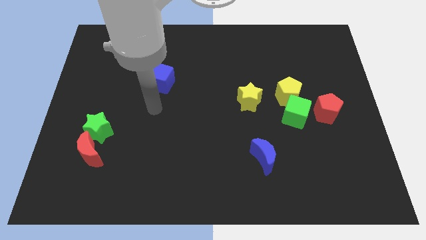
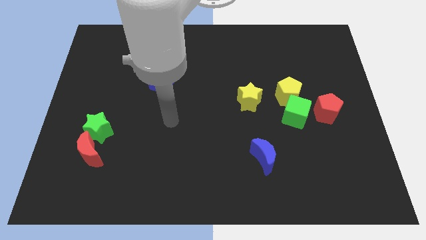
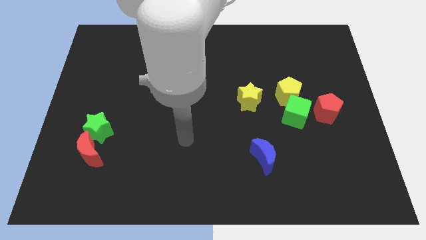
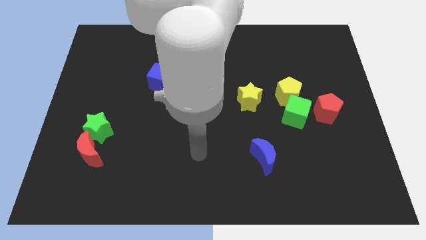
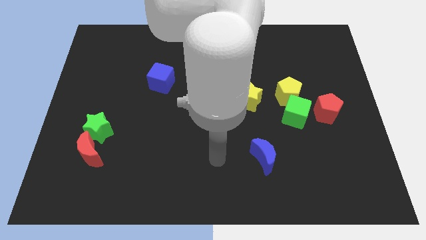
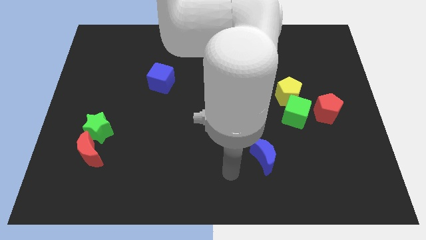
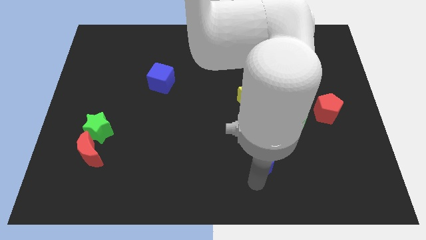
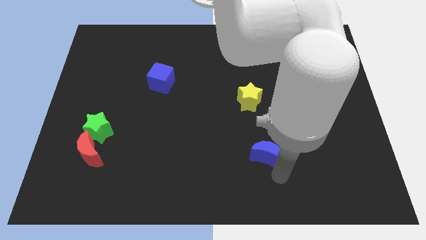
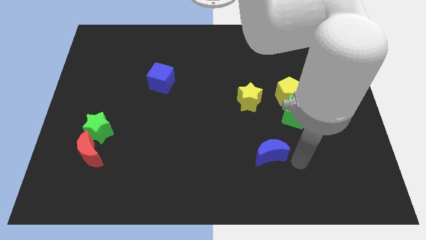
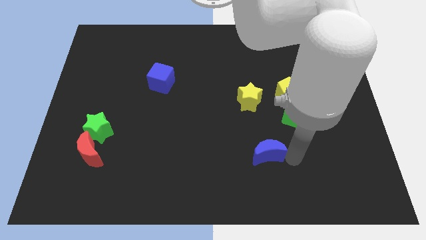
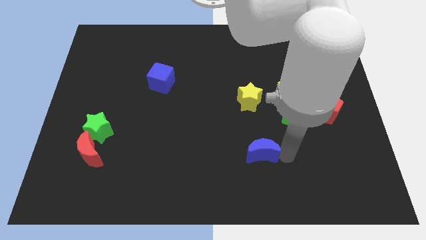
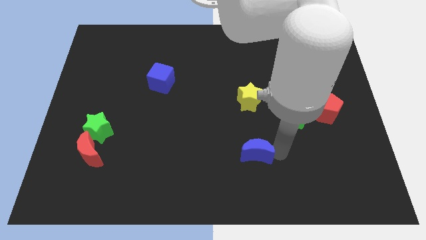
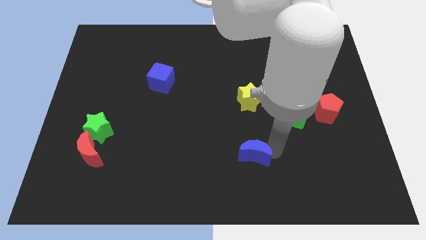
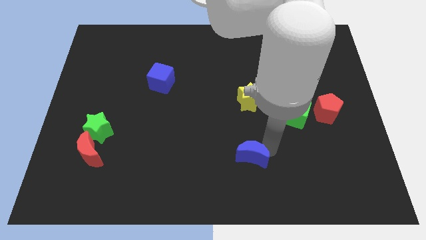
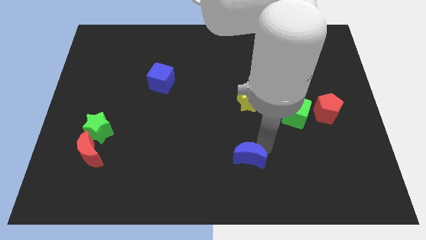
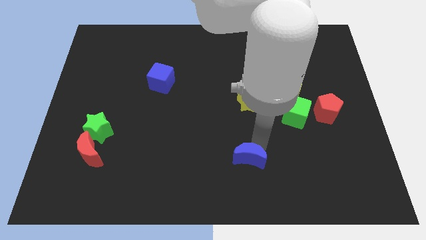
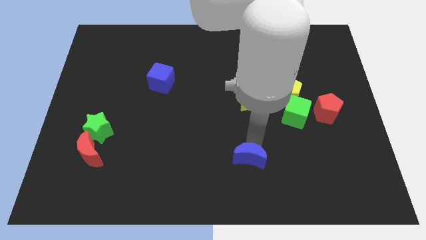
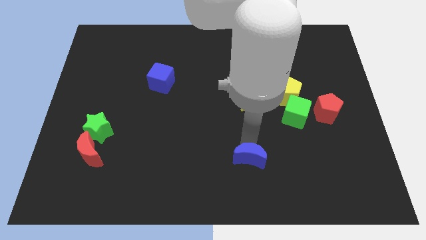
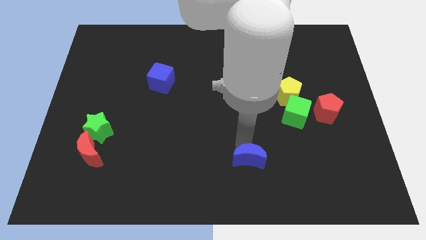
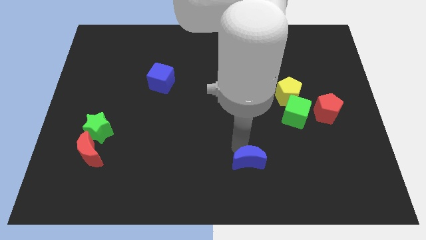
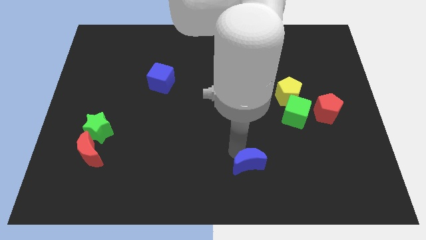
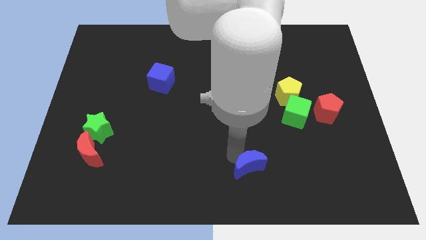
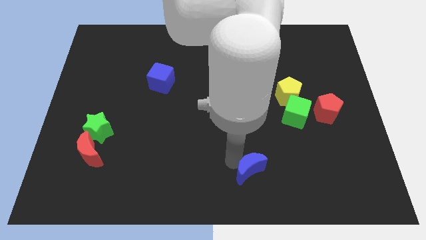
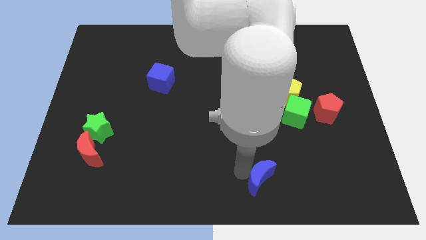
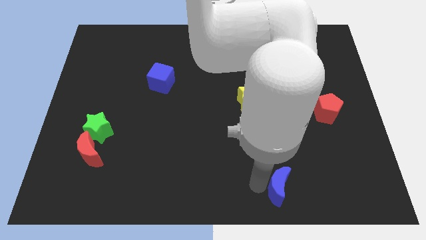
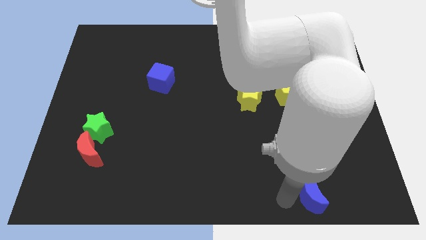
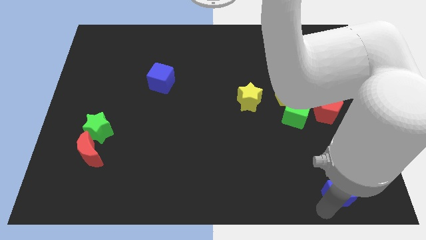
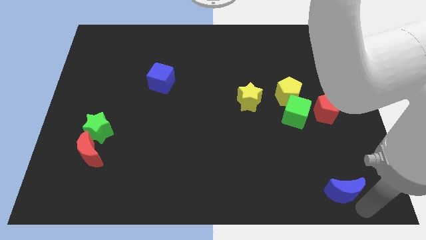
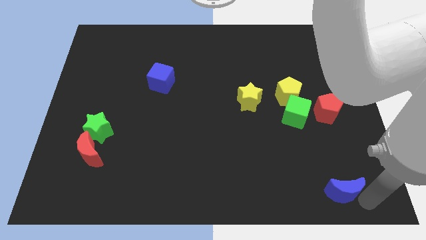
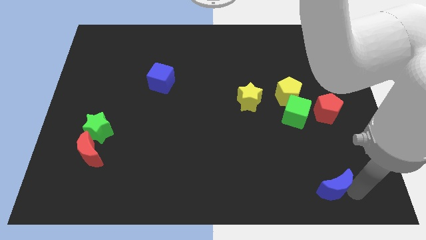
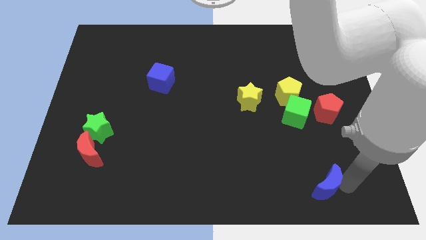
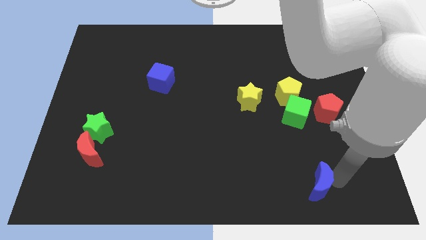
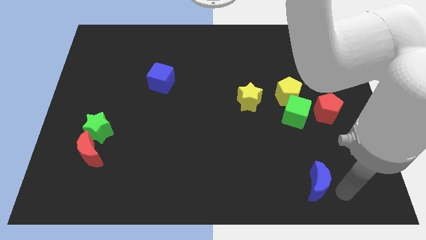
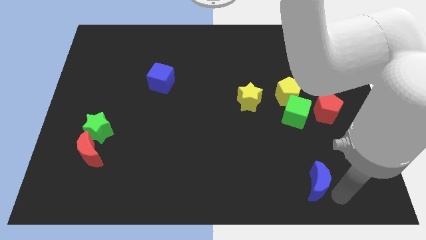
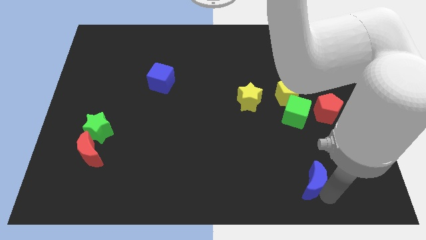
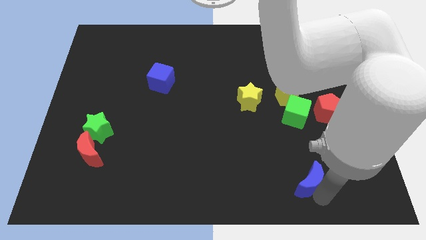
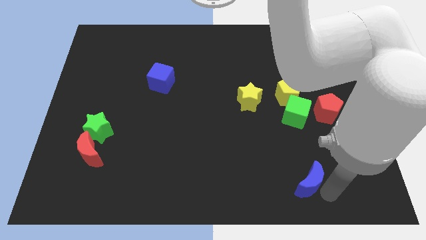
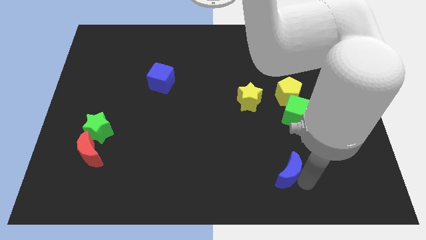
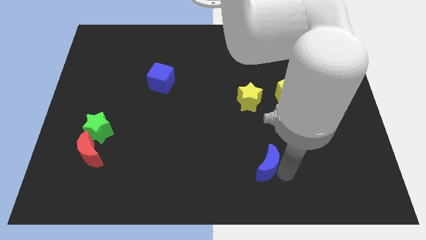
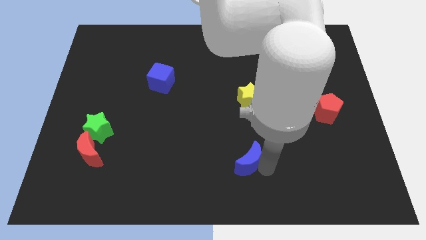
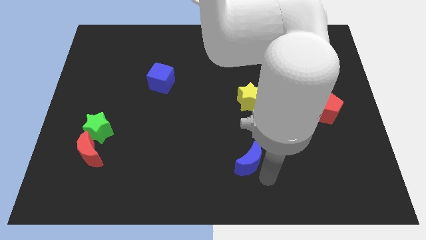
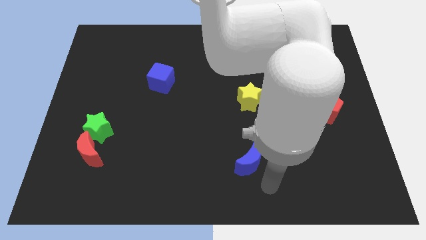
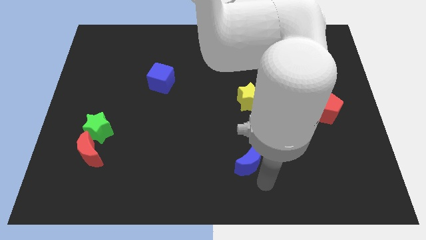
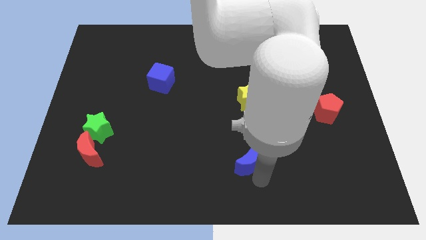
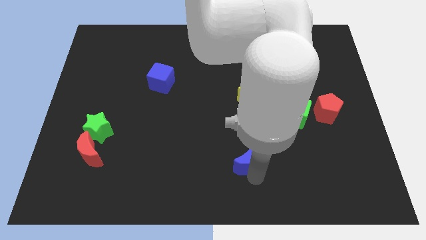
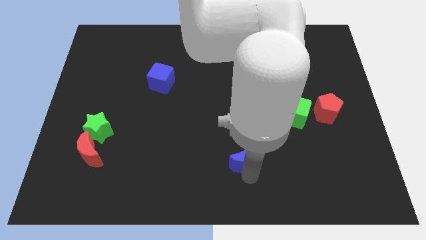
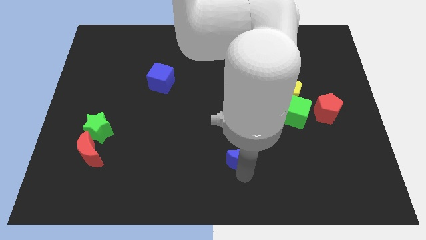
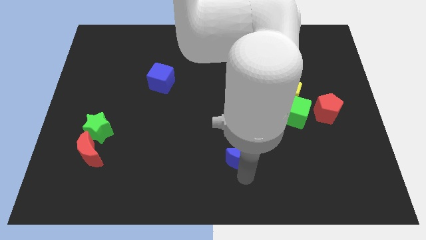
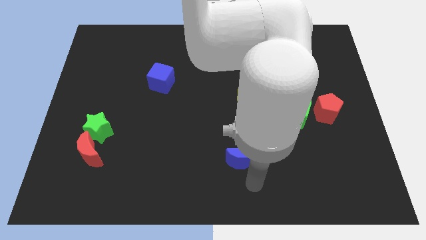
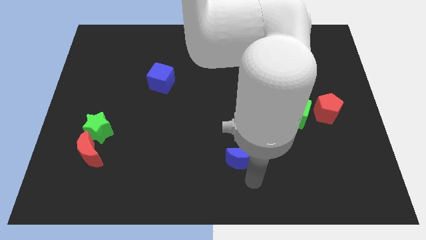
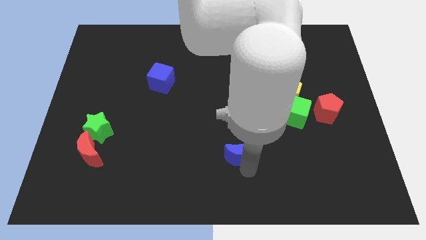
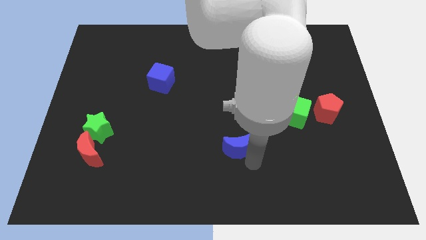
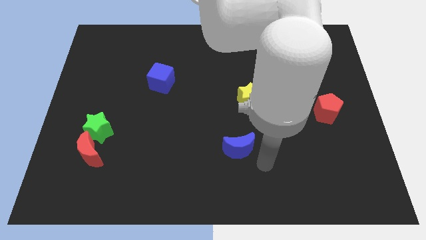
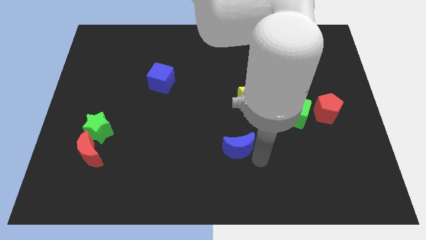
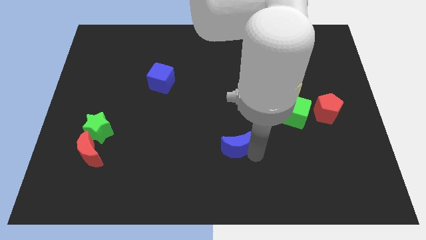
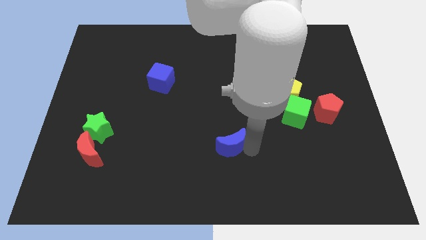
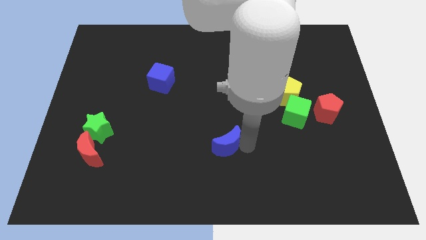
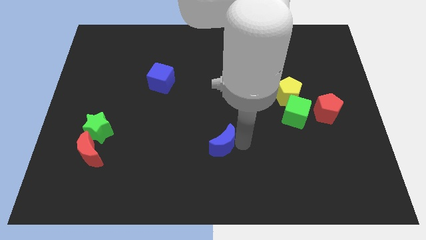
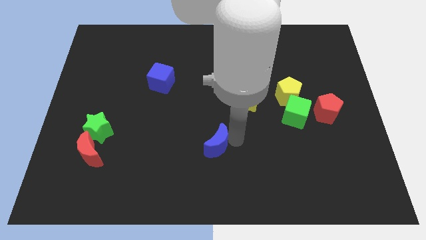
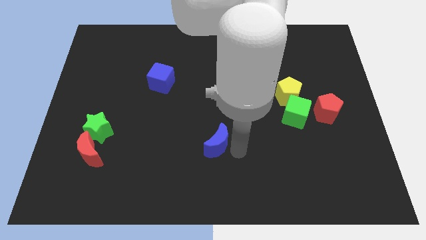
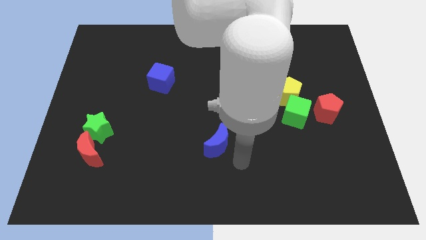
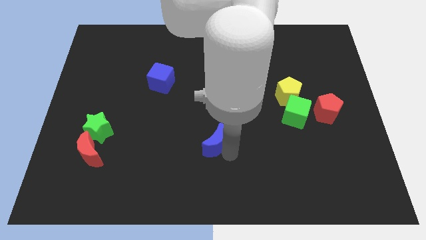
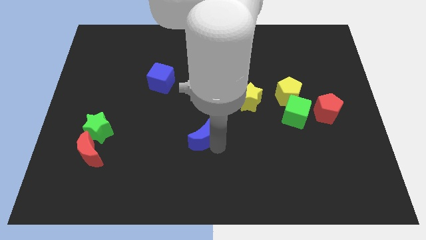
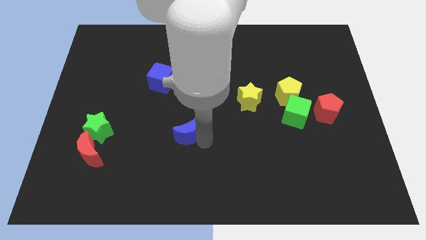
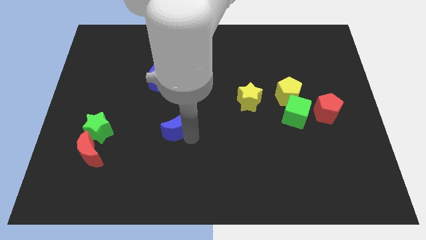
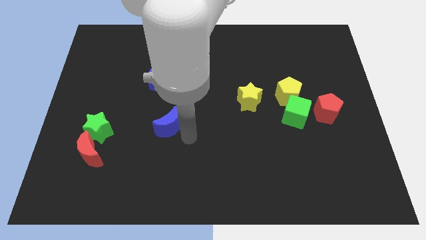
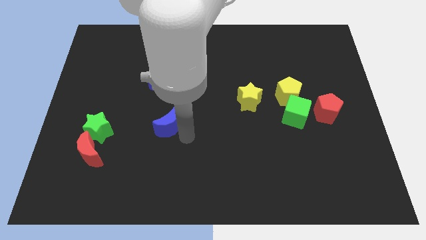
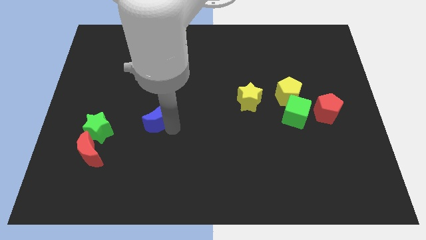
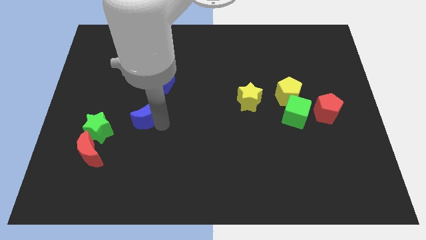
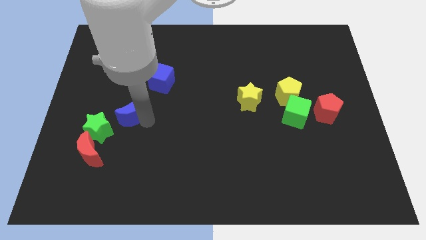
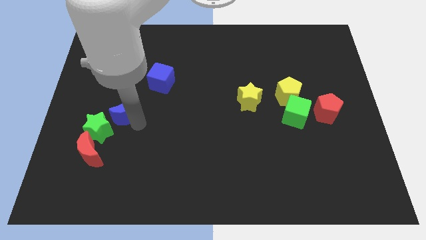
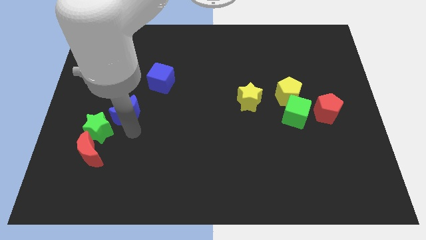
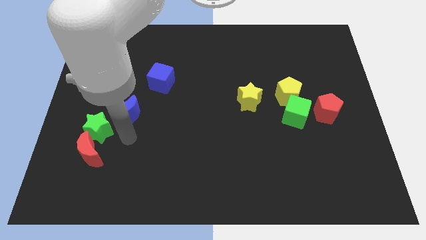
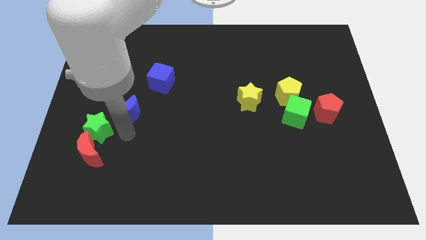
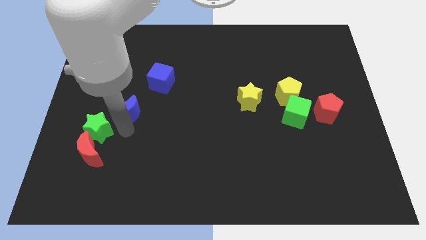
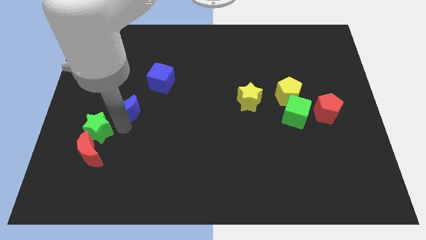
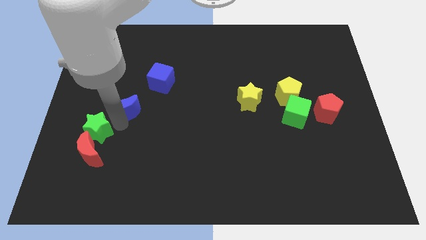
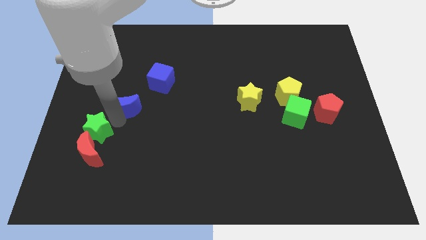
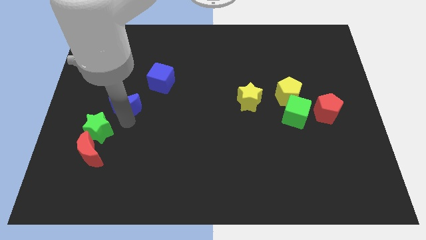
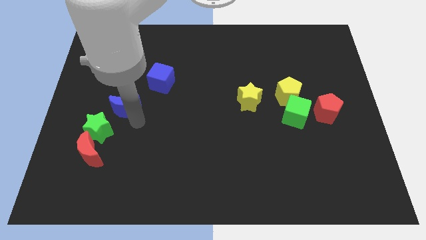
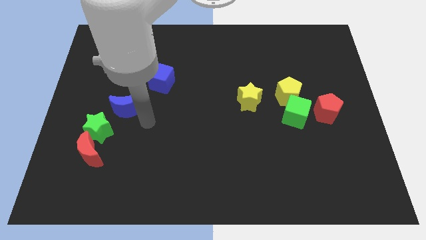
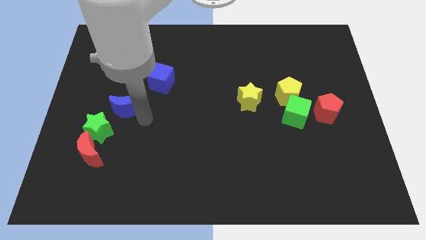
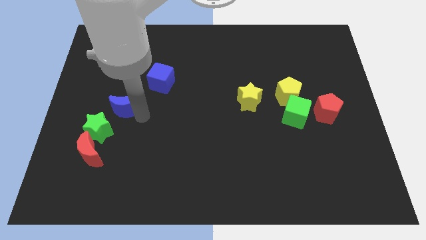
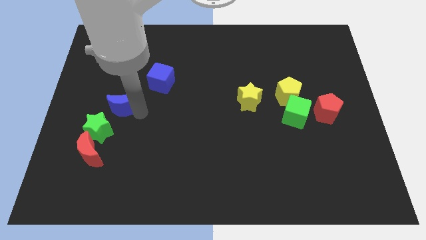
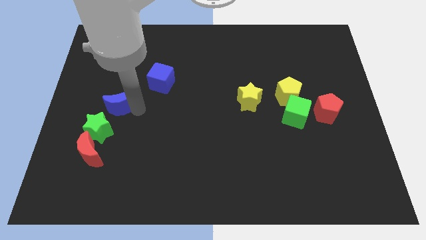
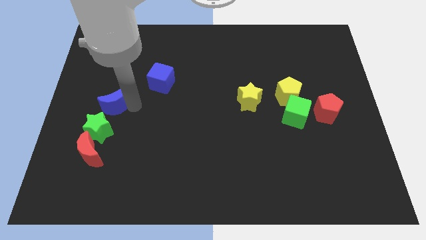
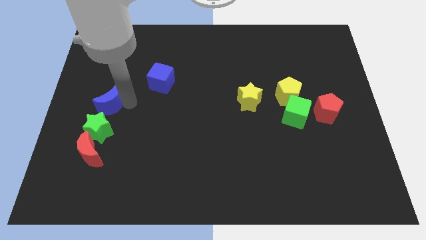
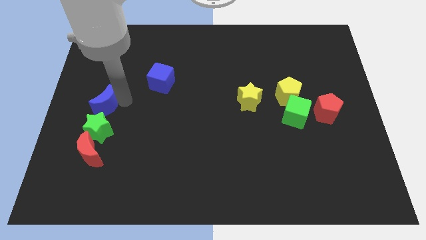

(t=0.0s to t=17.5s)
slide the blue moon to the left side of the board
